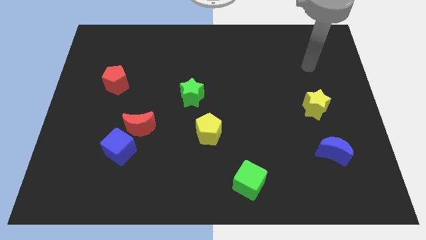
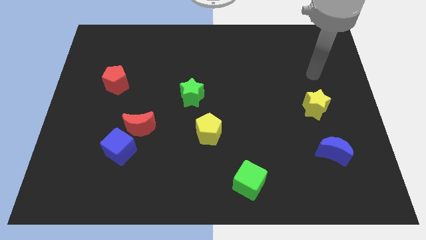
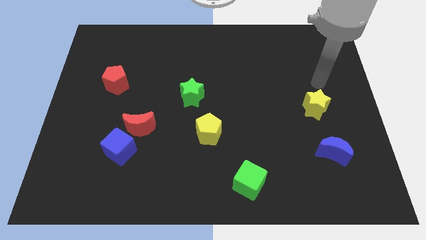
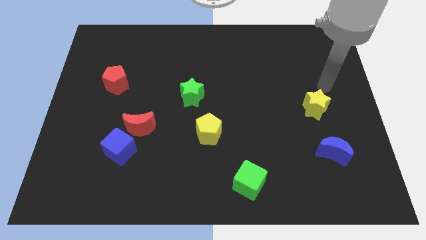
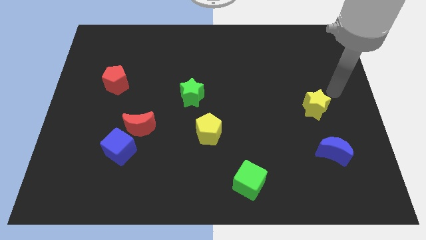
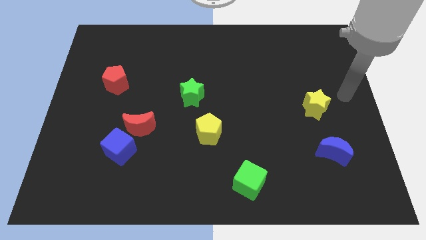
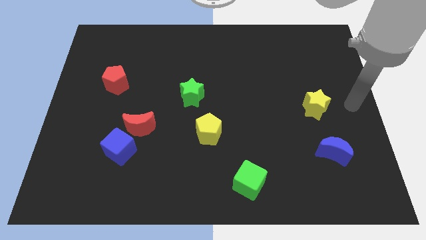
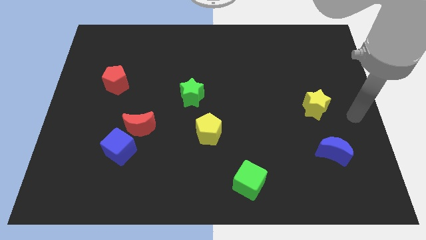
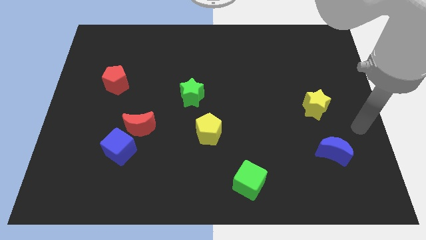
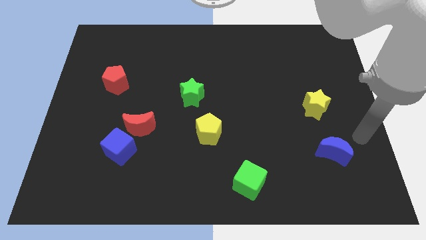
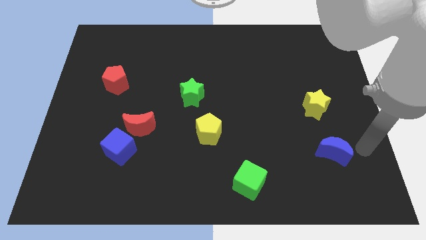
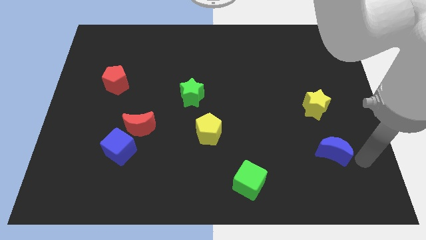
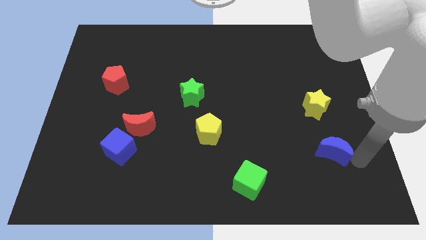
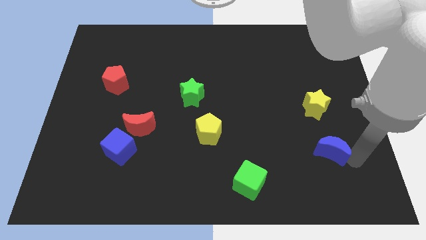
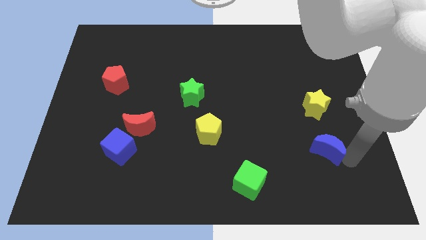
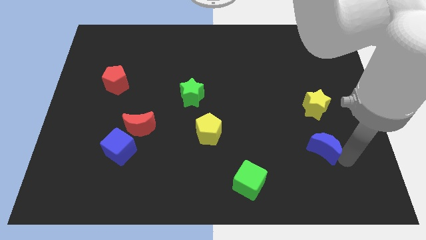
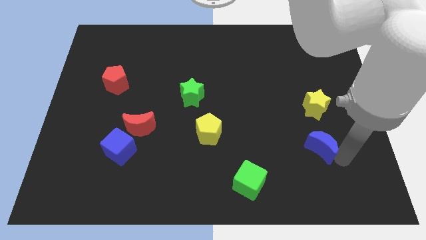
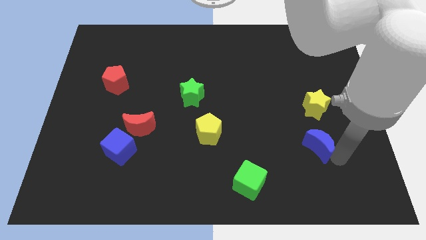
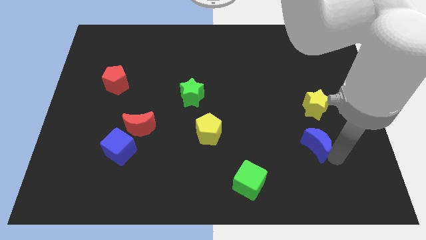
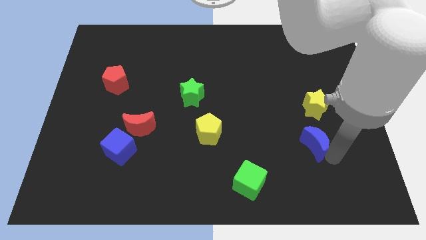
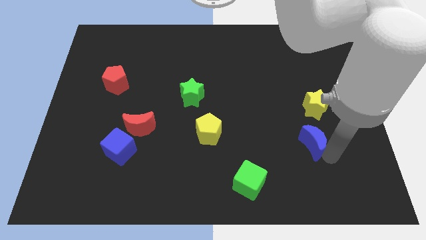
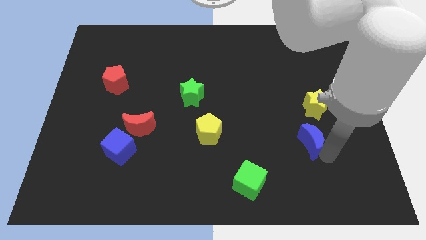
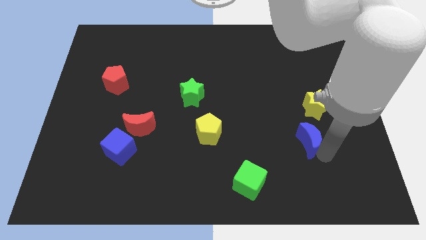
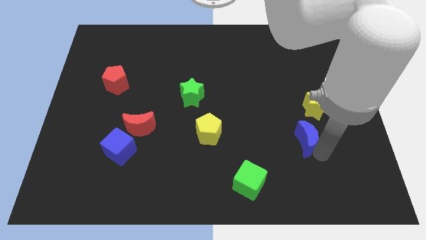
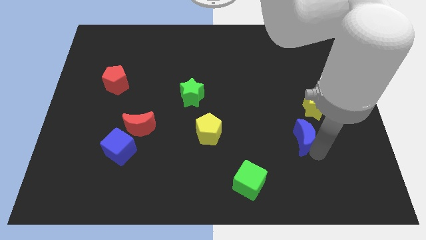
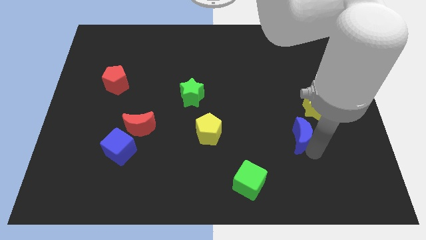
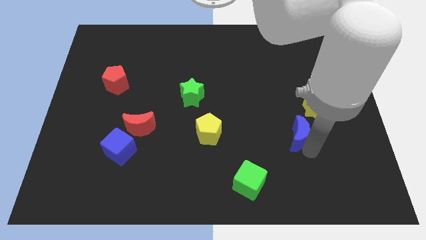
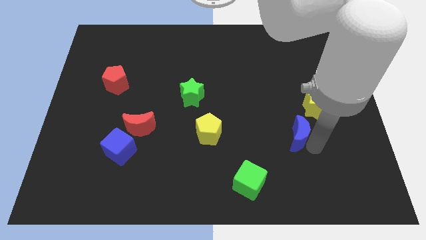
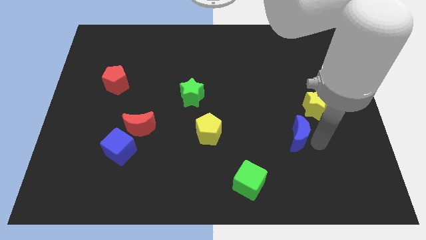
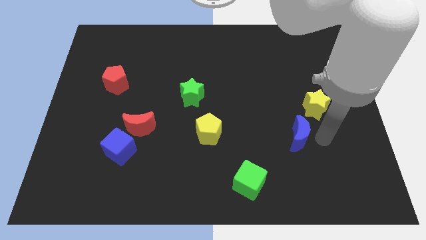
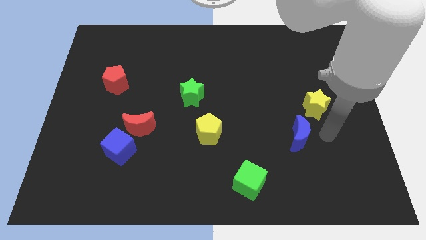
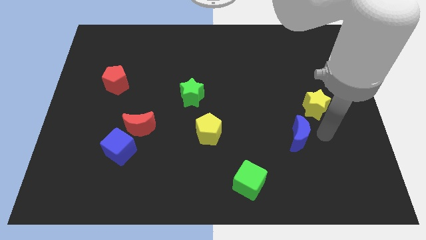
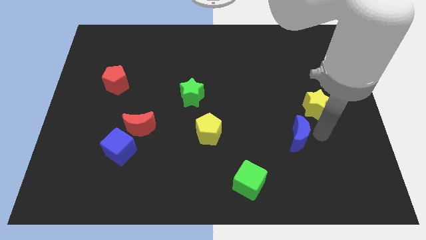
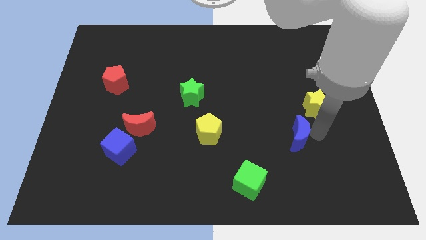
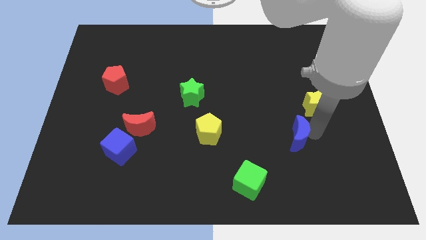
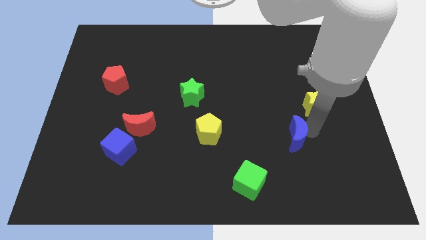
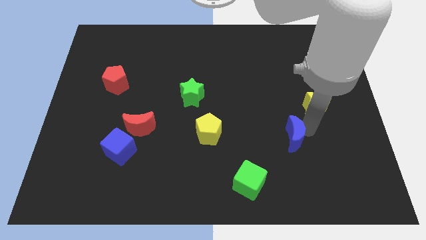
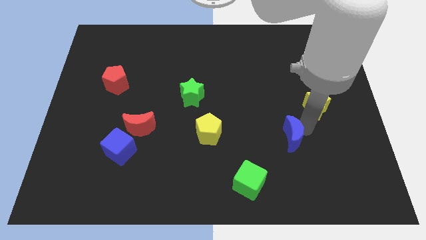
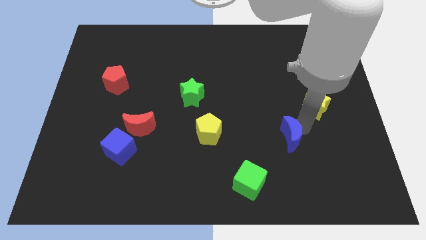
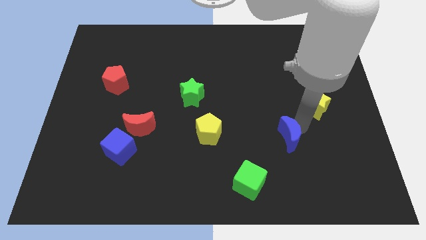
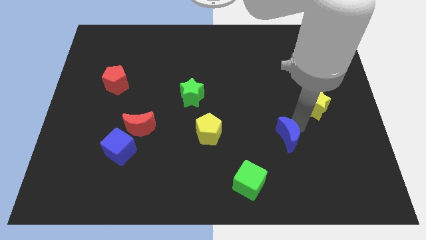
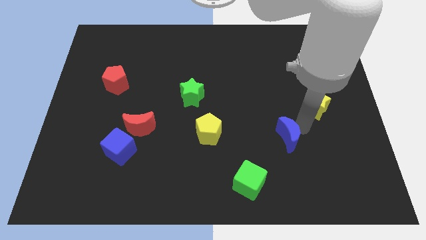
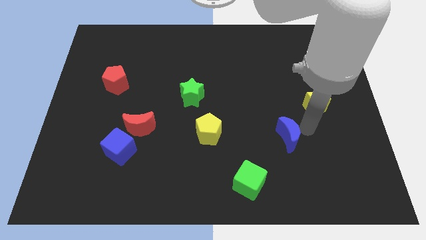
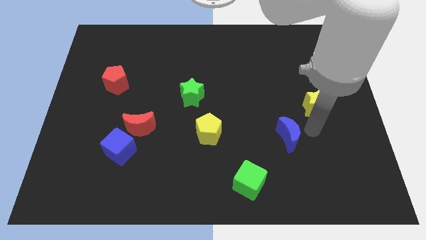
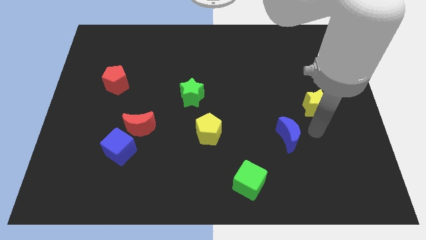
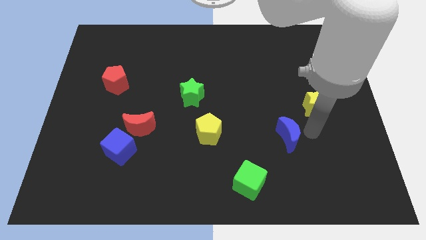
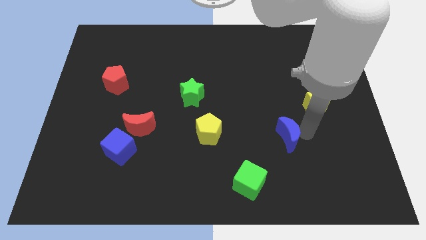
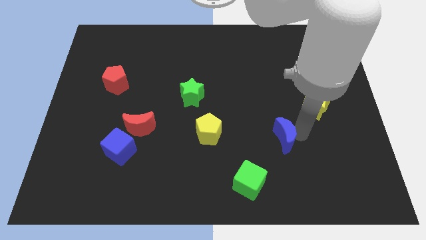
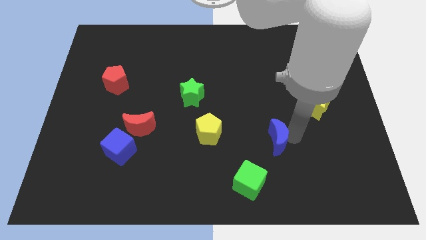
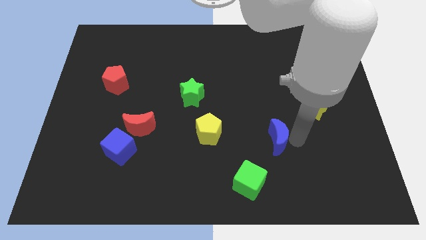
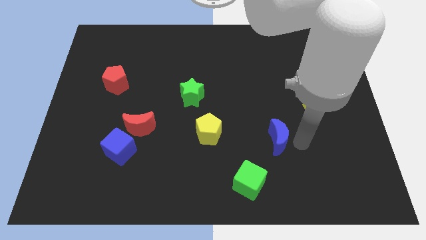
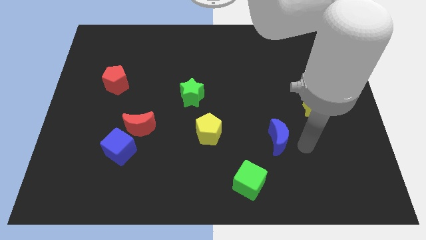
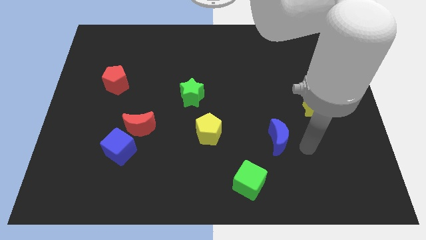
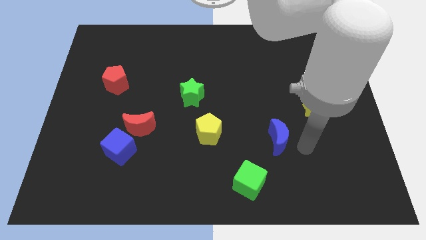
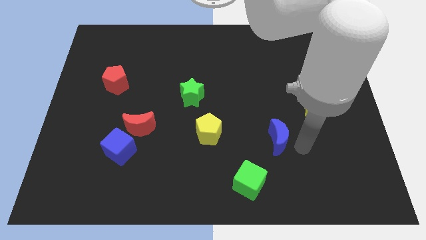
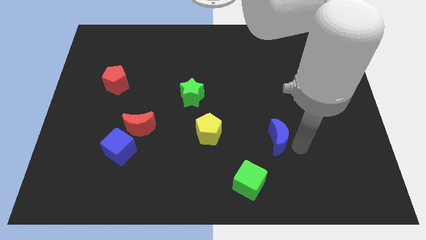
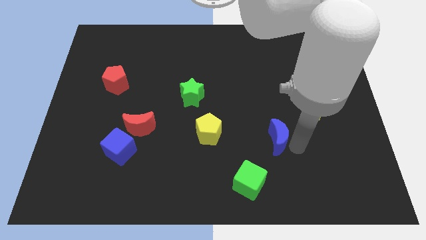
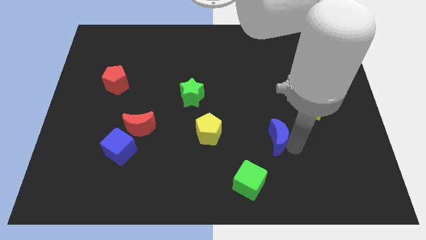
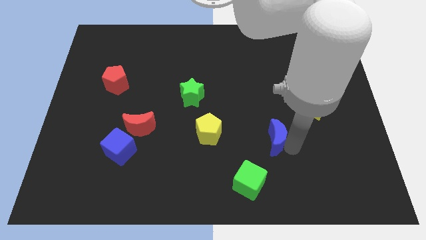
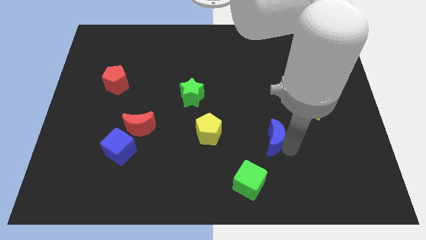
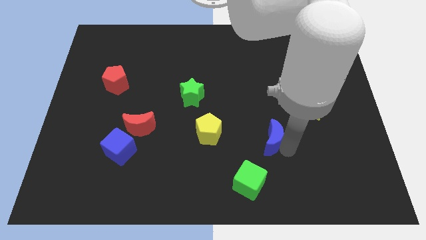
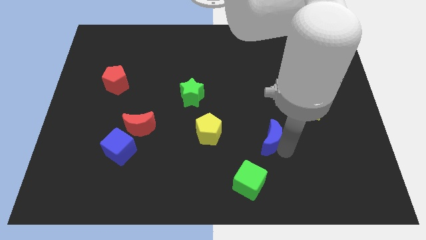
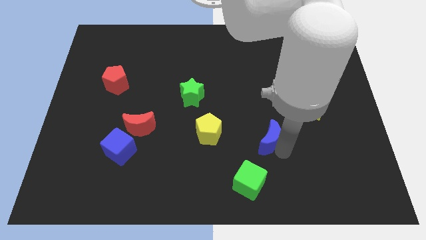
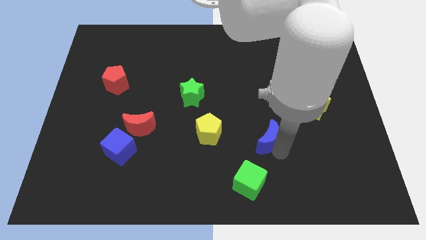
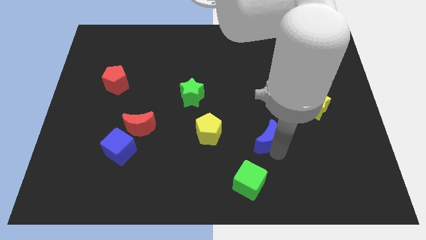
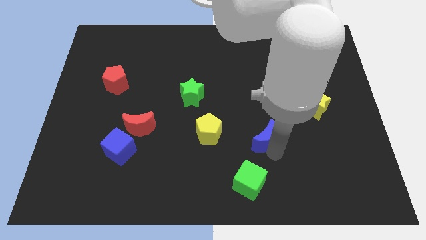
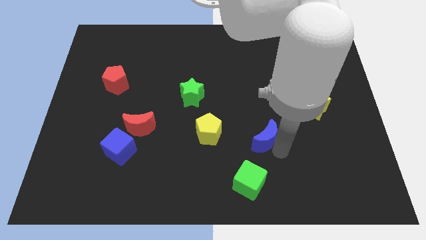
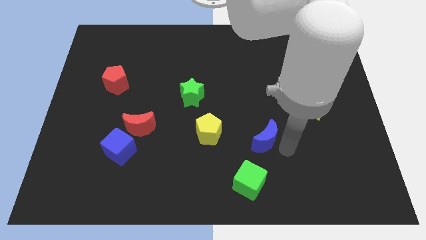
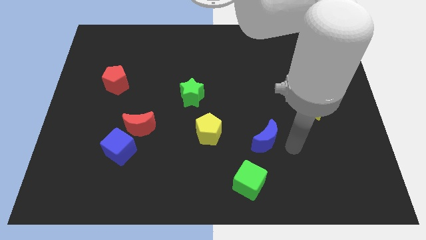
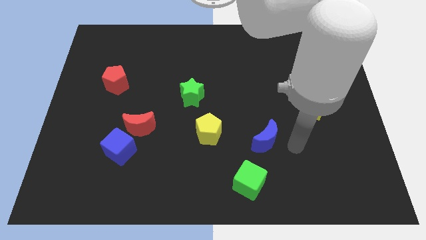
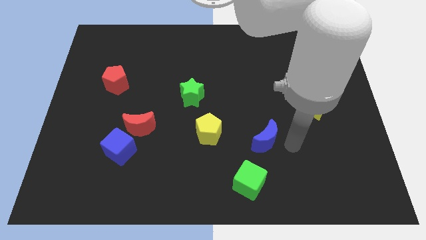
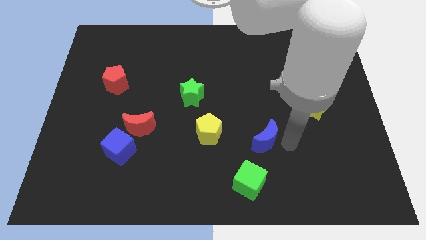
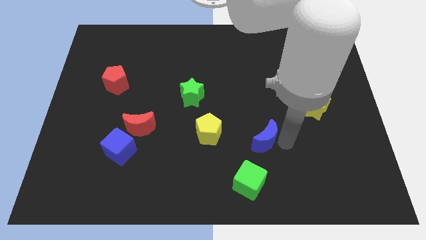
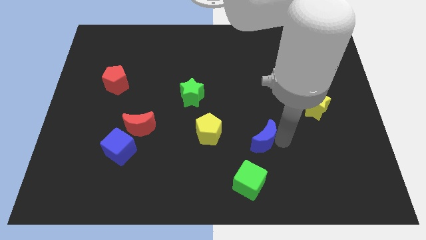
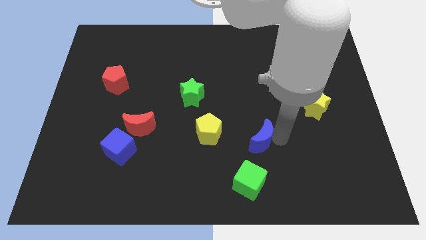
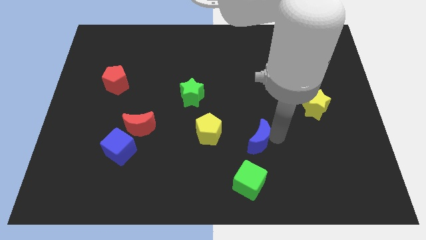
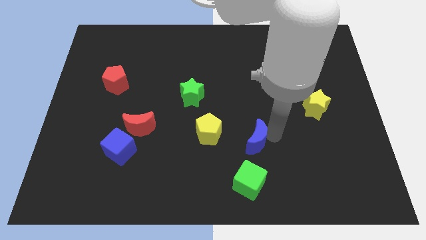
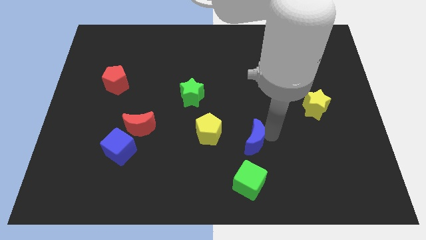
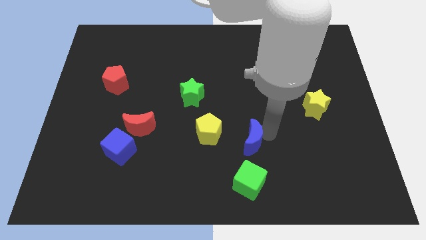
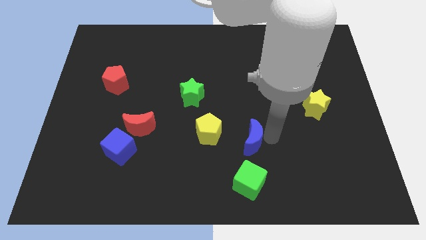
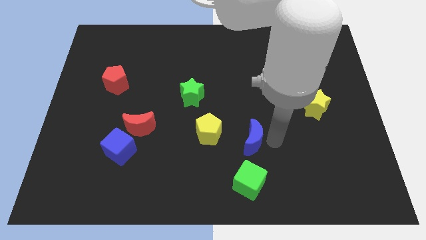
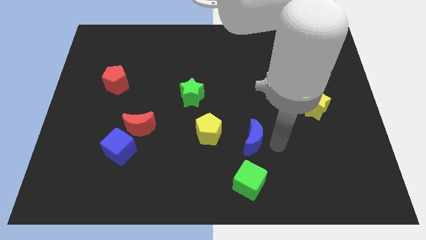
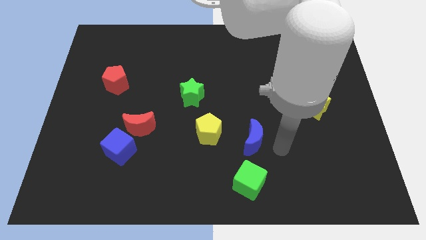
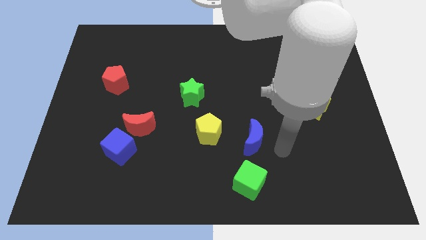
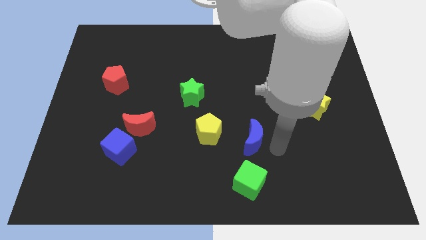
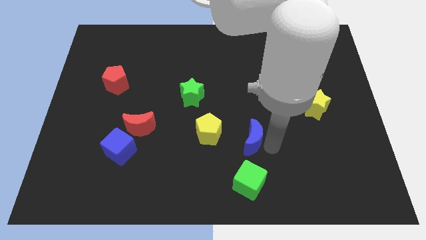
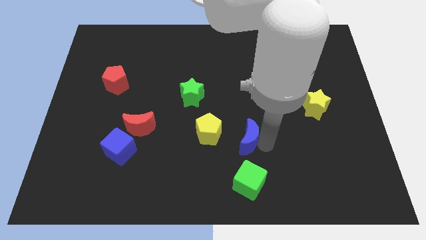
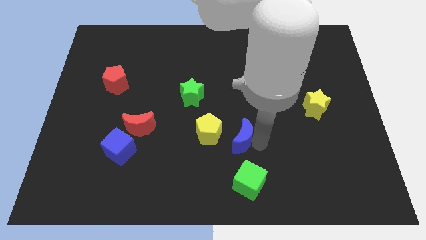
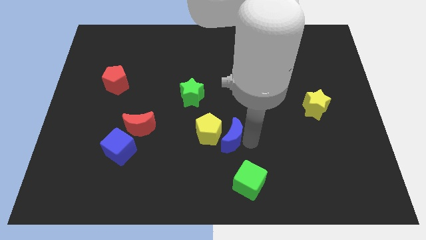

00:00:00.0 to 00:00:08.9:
push the blue moon to the yellow pentagon
